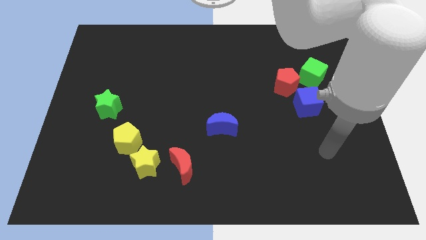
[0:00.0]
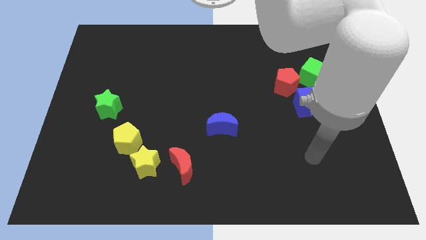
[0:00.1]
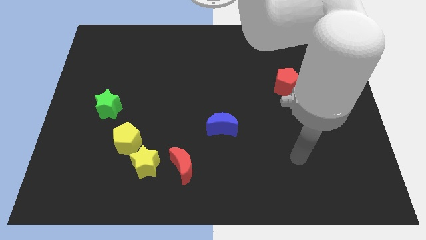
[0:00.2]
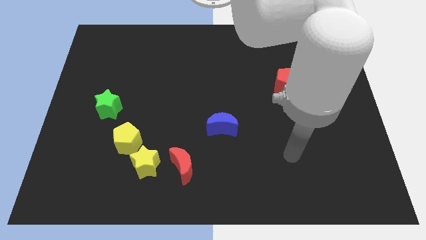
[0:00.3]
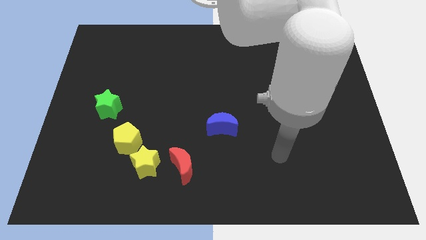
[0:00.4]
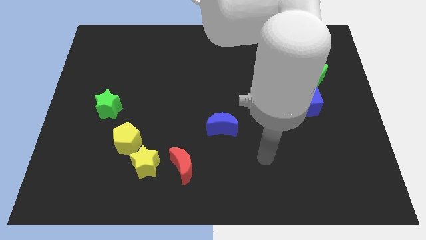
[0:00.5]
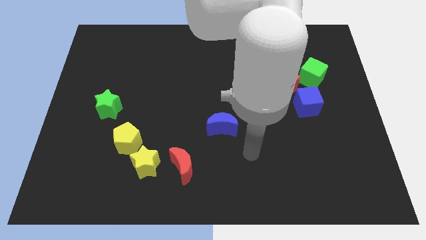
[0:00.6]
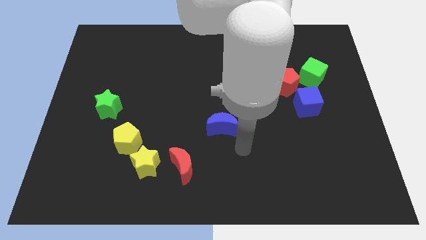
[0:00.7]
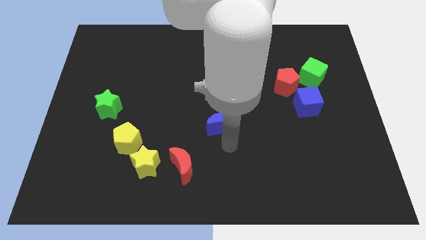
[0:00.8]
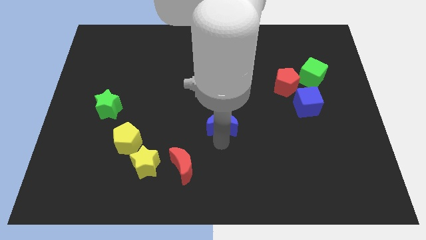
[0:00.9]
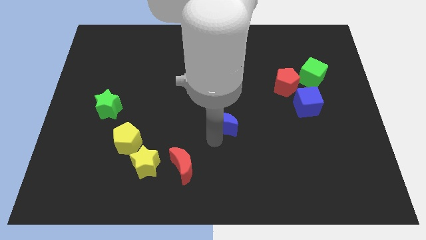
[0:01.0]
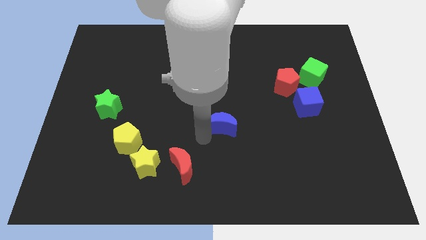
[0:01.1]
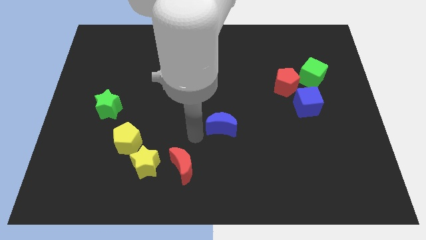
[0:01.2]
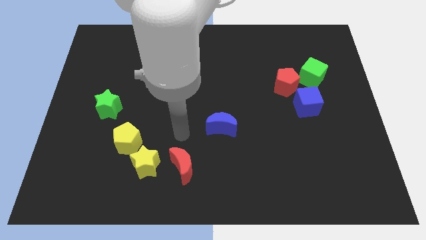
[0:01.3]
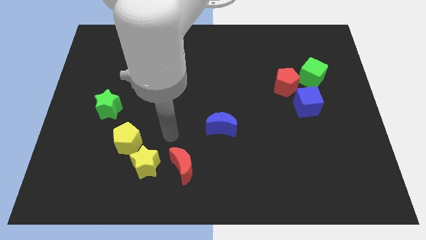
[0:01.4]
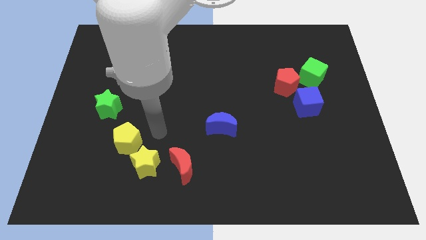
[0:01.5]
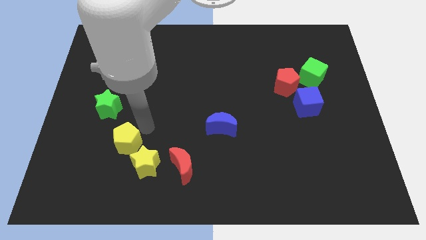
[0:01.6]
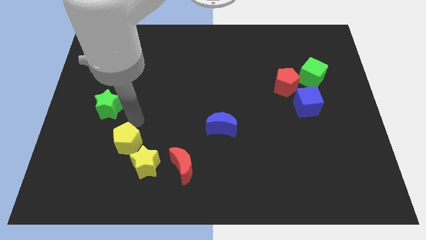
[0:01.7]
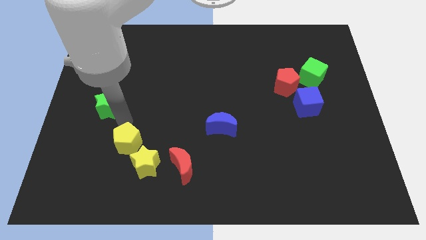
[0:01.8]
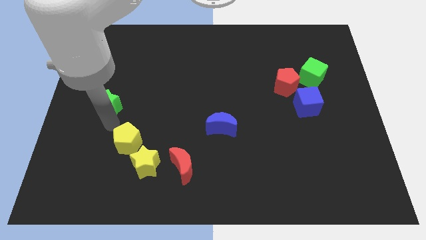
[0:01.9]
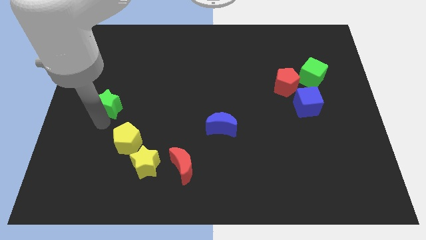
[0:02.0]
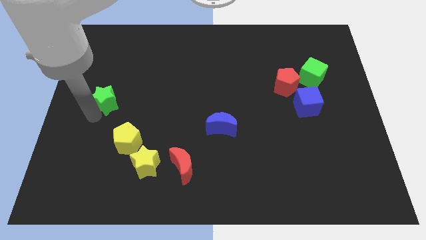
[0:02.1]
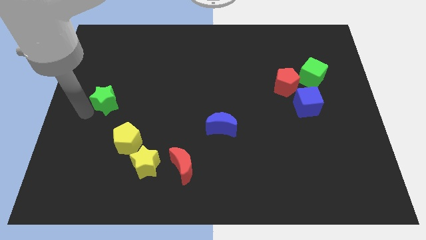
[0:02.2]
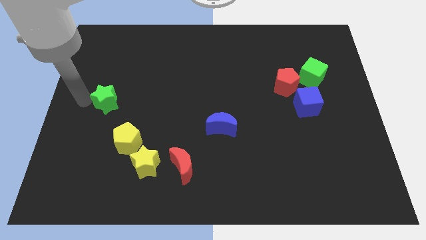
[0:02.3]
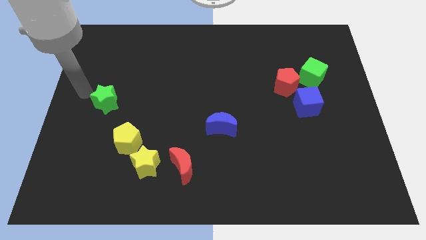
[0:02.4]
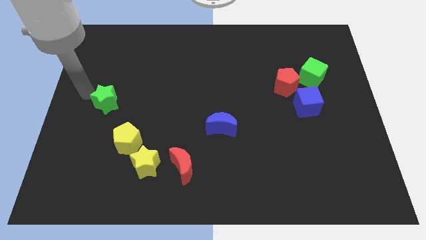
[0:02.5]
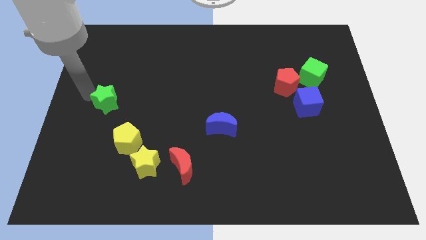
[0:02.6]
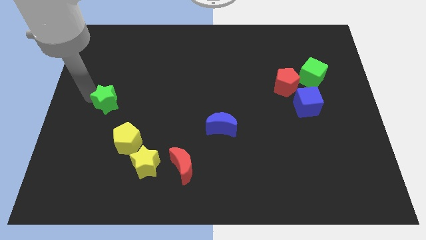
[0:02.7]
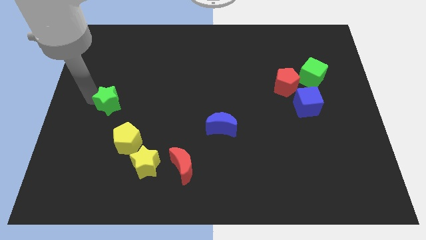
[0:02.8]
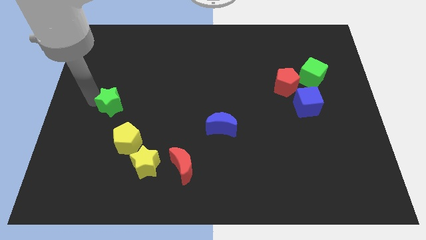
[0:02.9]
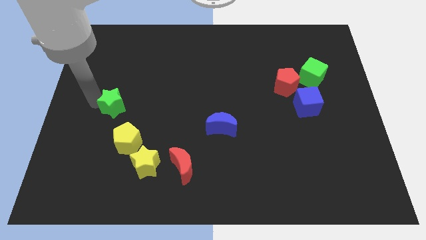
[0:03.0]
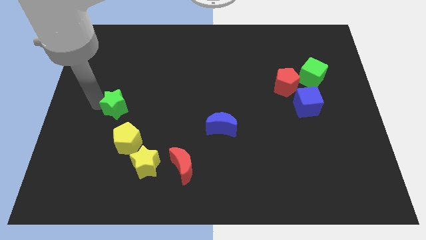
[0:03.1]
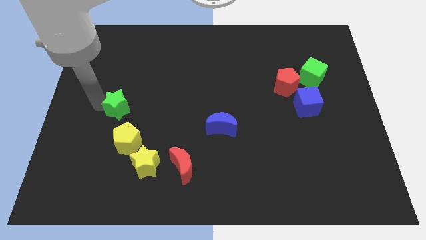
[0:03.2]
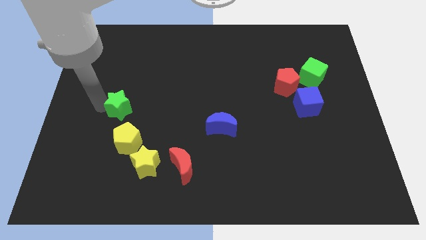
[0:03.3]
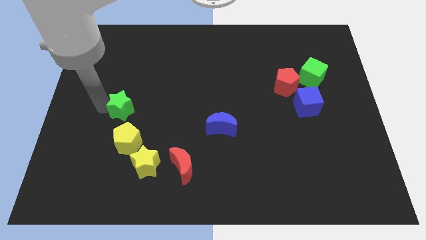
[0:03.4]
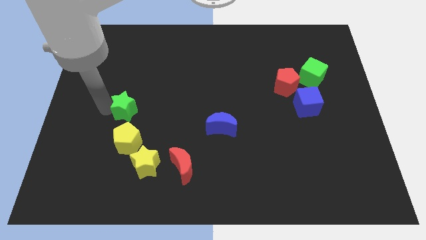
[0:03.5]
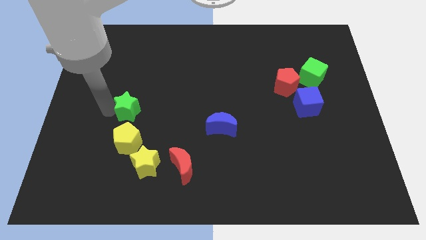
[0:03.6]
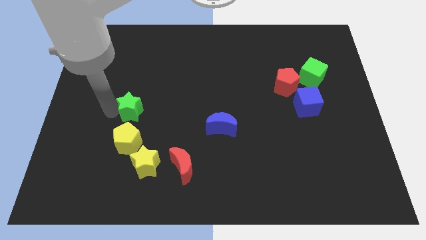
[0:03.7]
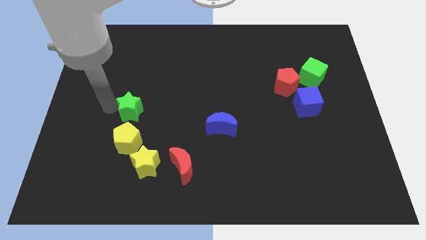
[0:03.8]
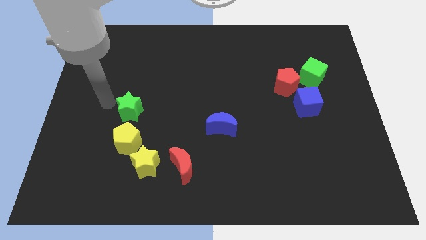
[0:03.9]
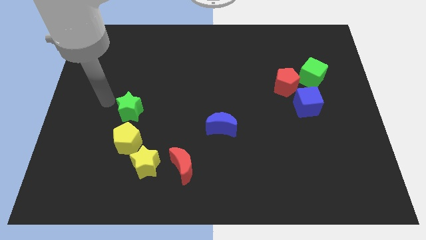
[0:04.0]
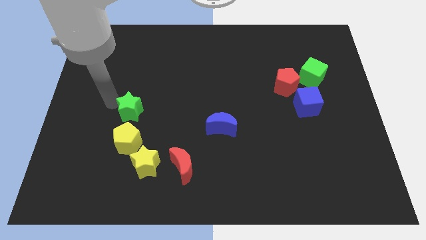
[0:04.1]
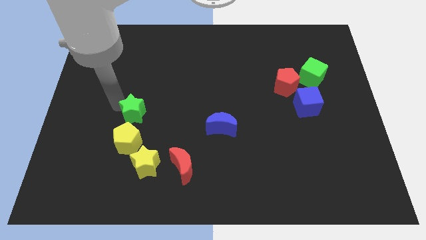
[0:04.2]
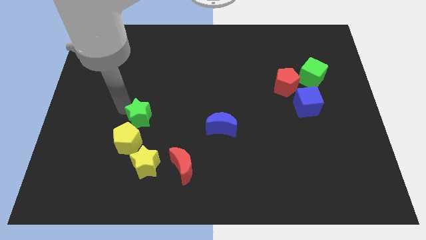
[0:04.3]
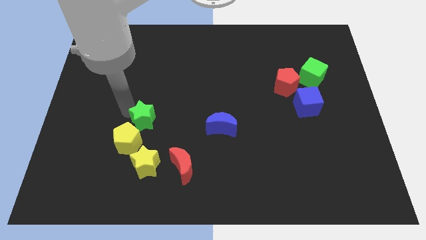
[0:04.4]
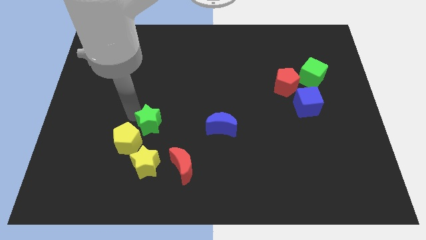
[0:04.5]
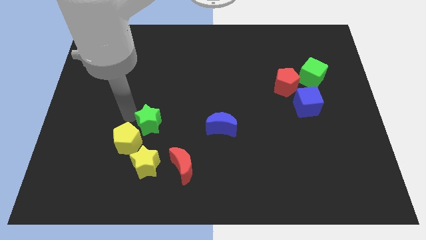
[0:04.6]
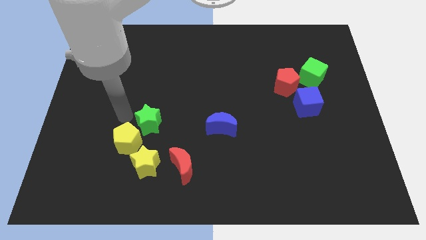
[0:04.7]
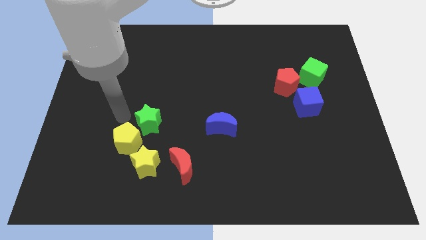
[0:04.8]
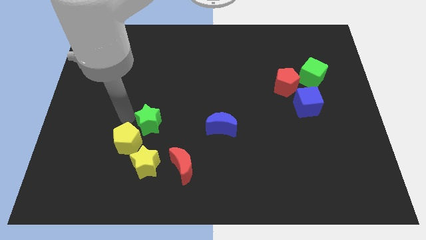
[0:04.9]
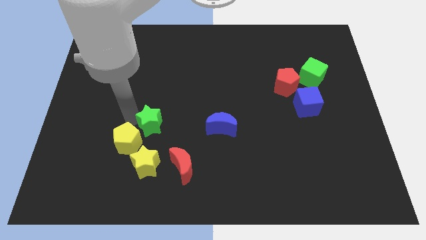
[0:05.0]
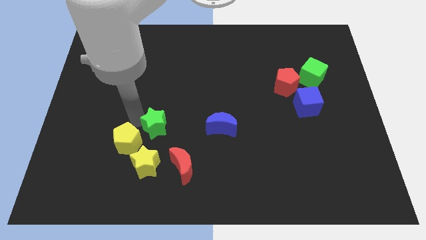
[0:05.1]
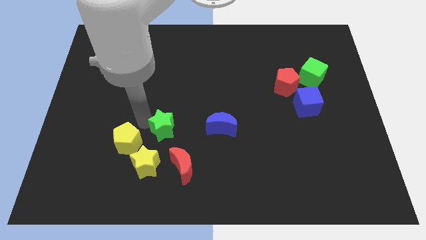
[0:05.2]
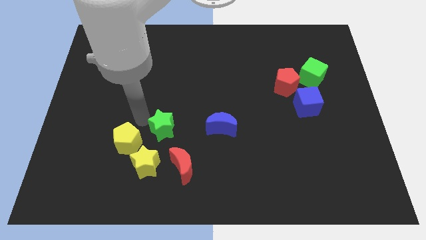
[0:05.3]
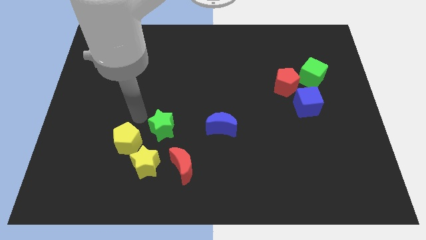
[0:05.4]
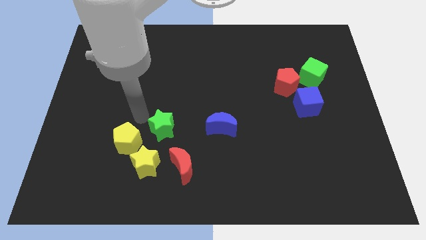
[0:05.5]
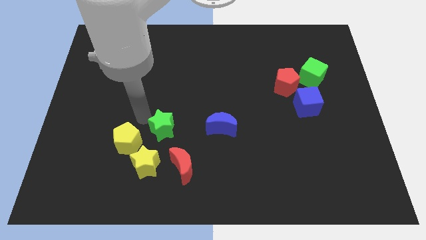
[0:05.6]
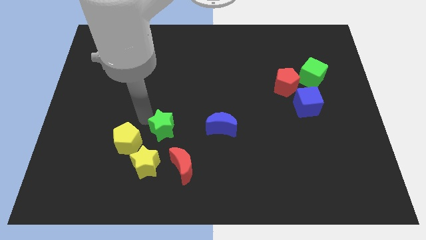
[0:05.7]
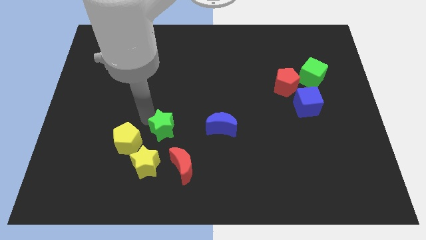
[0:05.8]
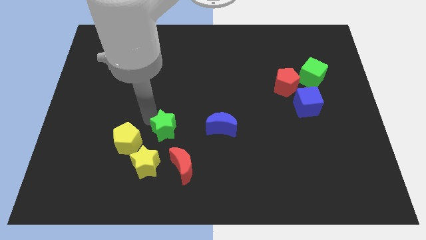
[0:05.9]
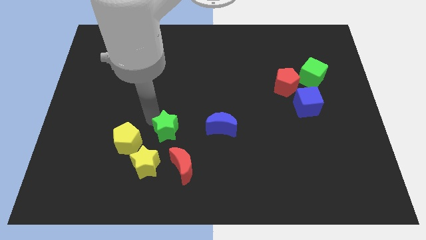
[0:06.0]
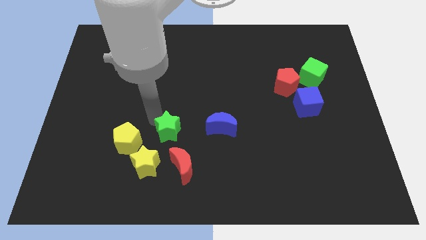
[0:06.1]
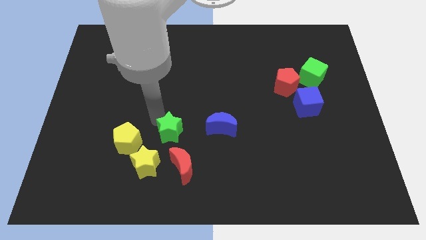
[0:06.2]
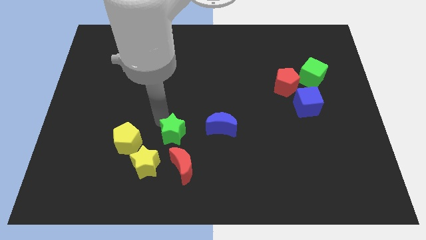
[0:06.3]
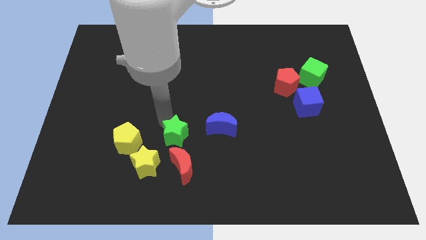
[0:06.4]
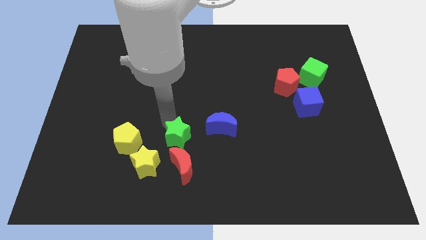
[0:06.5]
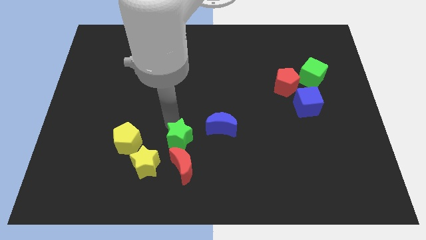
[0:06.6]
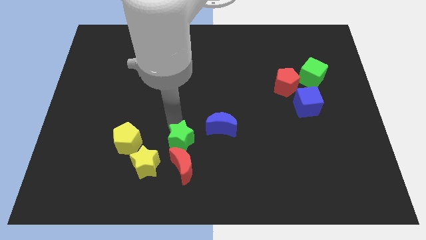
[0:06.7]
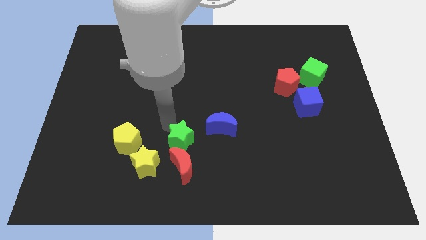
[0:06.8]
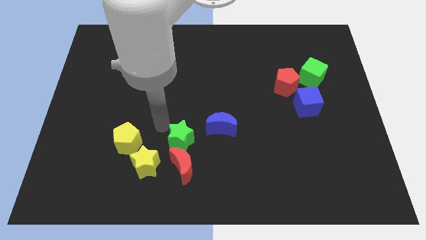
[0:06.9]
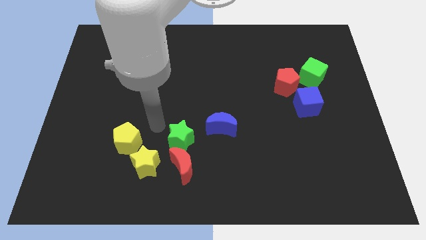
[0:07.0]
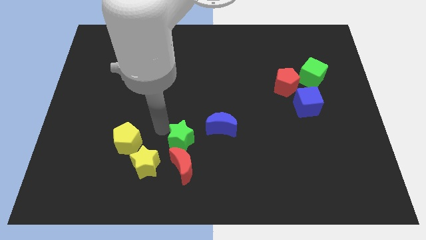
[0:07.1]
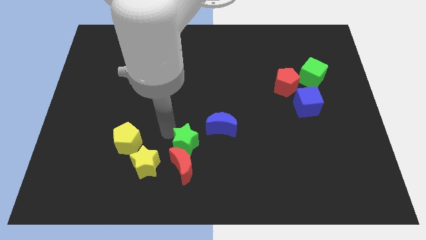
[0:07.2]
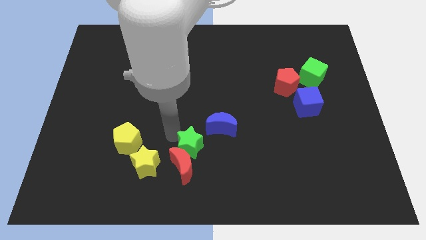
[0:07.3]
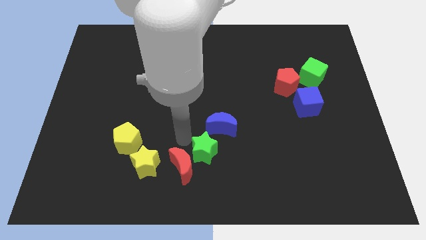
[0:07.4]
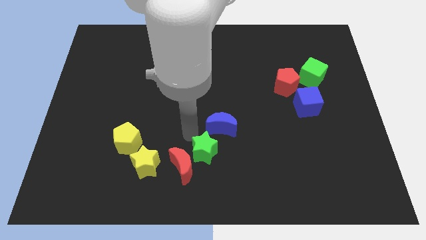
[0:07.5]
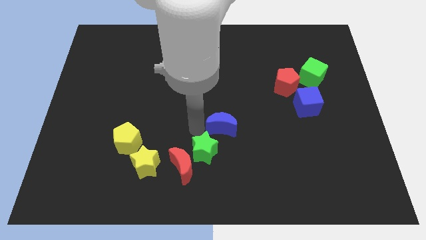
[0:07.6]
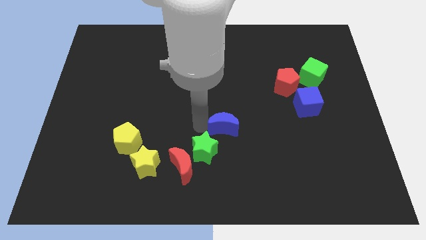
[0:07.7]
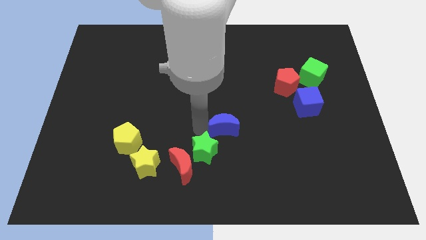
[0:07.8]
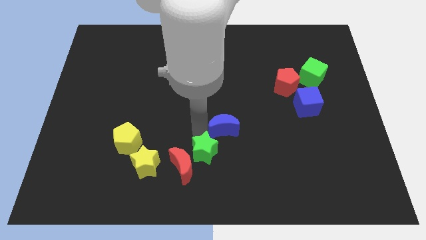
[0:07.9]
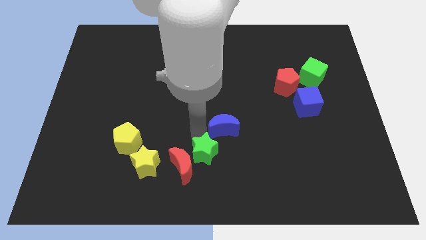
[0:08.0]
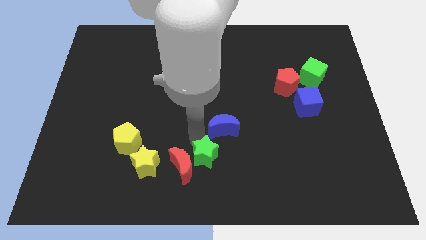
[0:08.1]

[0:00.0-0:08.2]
put the green star to the bottom
